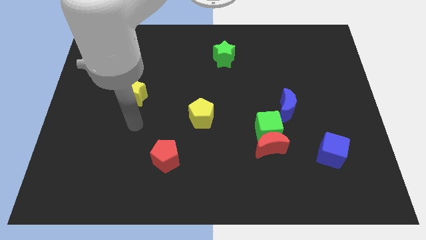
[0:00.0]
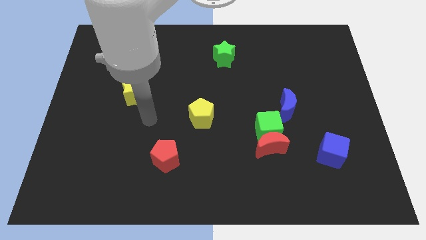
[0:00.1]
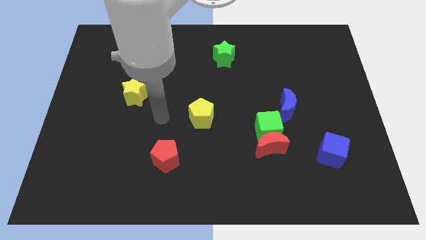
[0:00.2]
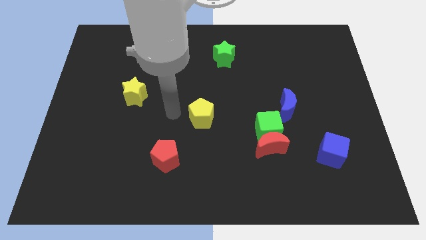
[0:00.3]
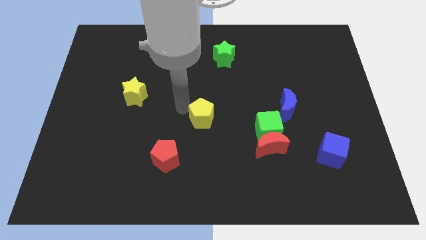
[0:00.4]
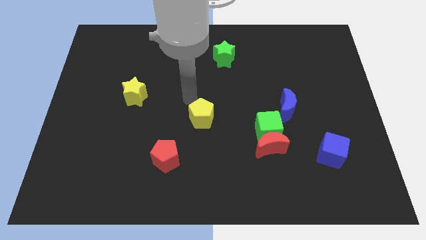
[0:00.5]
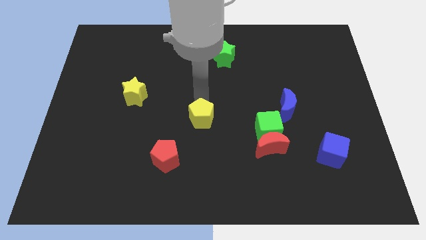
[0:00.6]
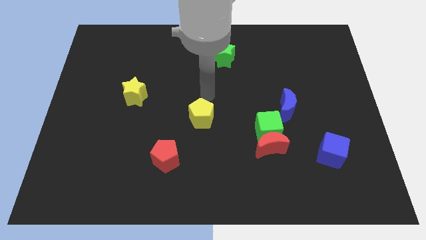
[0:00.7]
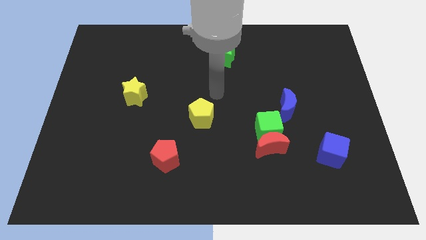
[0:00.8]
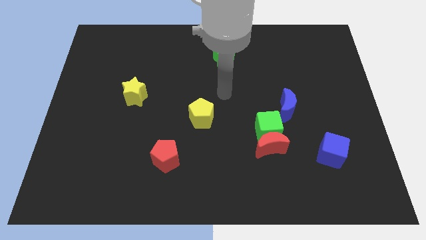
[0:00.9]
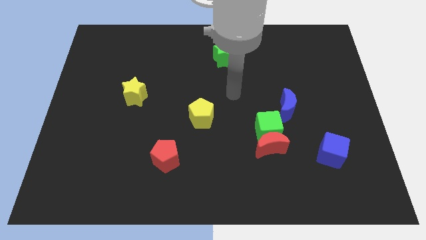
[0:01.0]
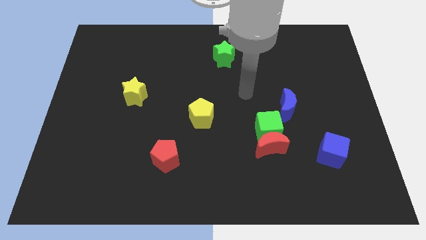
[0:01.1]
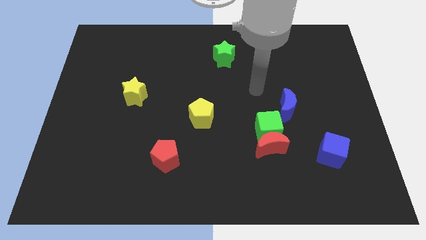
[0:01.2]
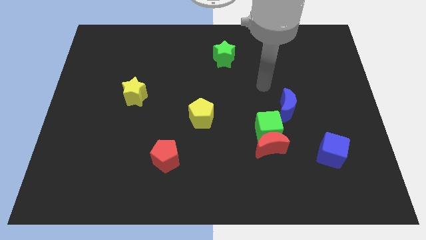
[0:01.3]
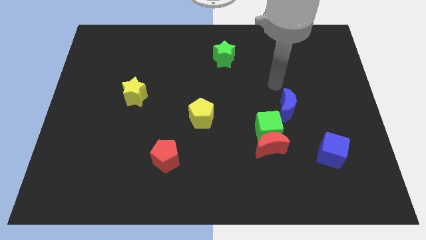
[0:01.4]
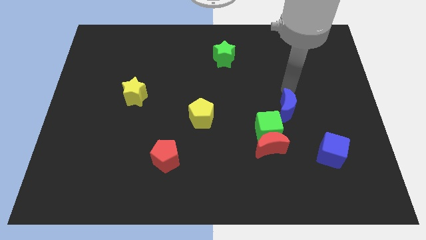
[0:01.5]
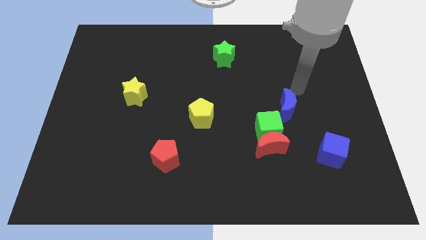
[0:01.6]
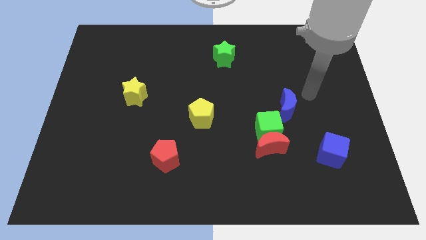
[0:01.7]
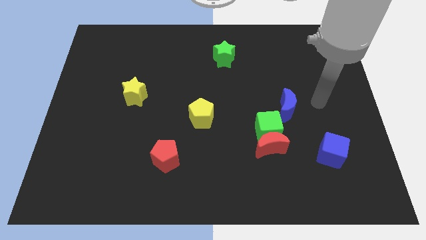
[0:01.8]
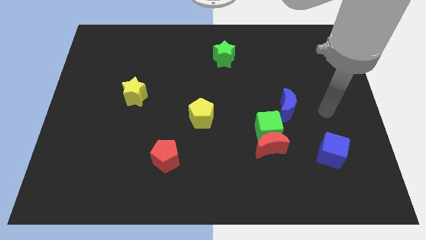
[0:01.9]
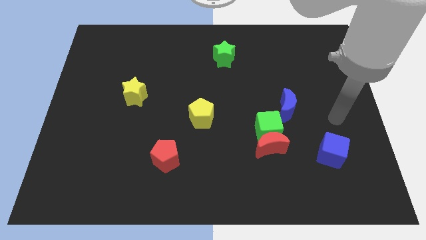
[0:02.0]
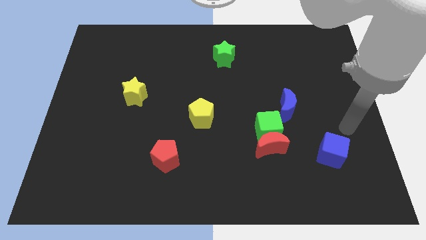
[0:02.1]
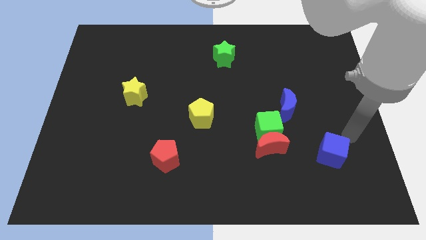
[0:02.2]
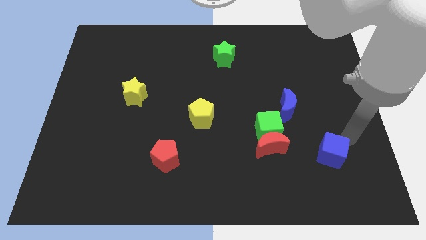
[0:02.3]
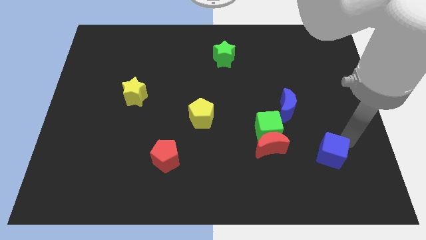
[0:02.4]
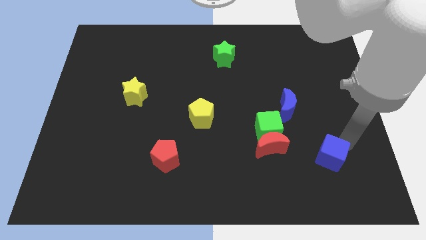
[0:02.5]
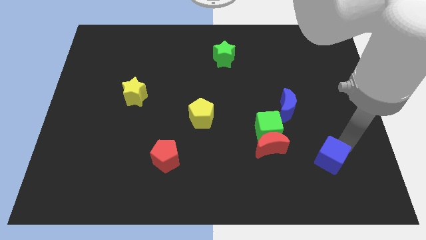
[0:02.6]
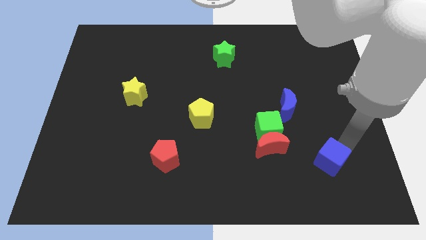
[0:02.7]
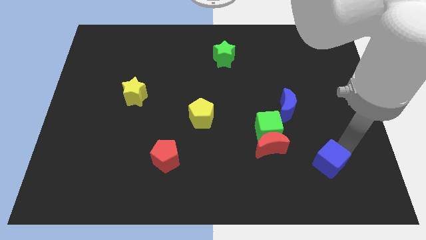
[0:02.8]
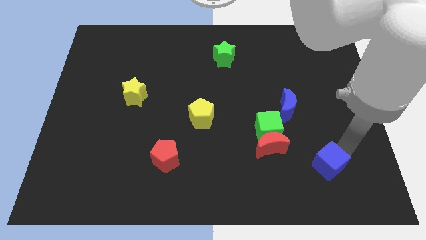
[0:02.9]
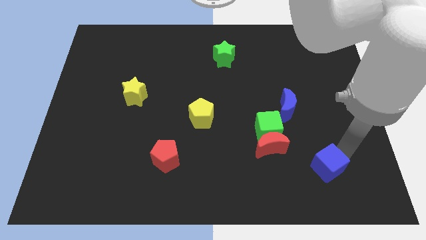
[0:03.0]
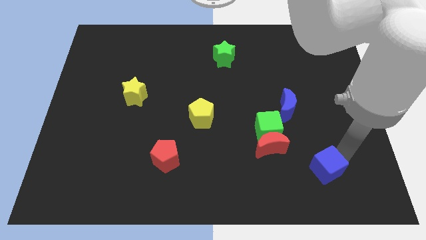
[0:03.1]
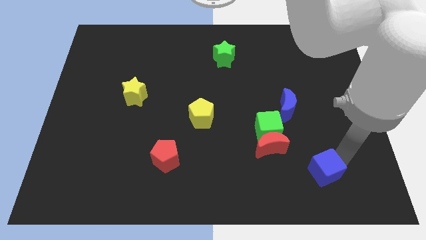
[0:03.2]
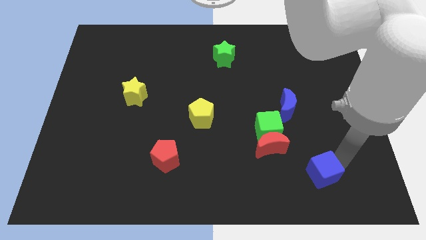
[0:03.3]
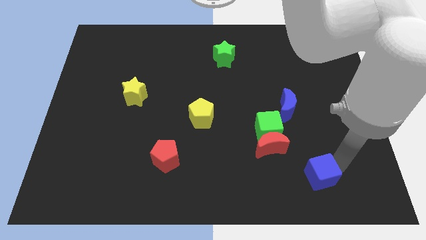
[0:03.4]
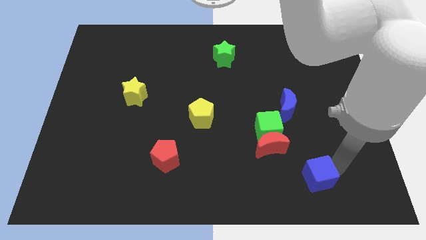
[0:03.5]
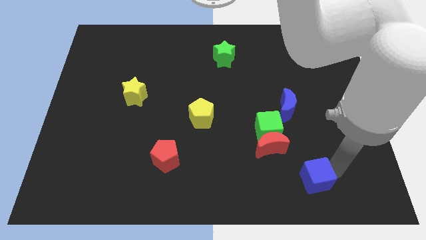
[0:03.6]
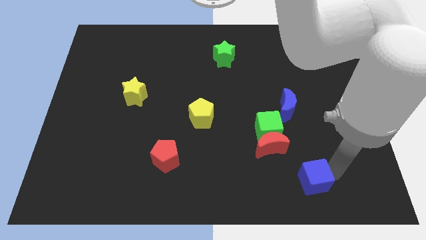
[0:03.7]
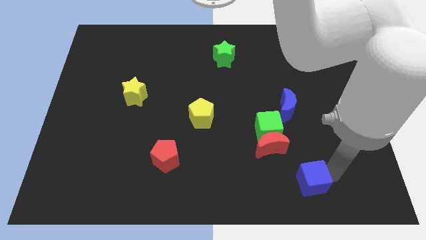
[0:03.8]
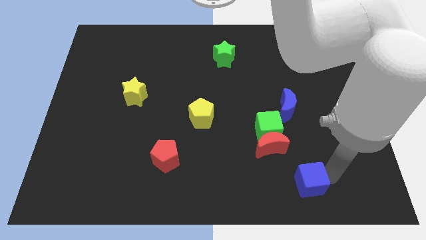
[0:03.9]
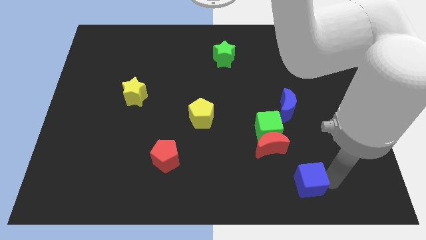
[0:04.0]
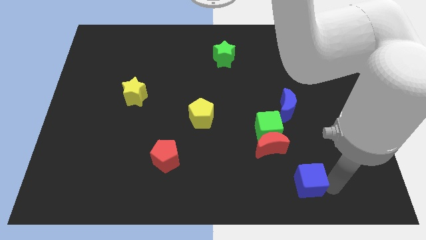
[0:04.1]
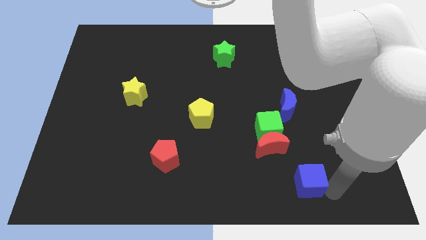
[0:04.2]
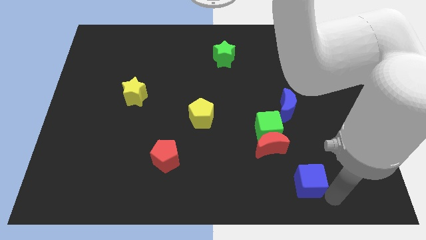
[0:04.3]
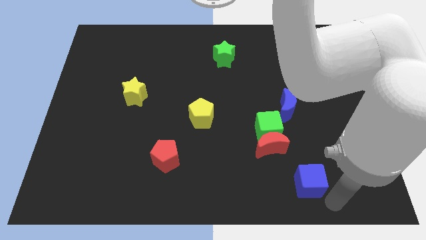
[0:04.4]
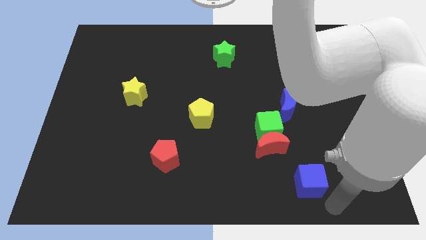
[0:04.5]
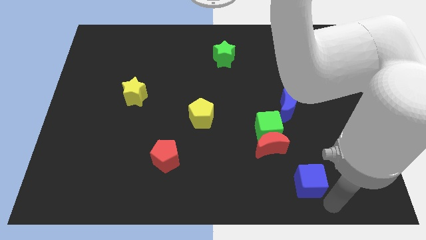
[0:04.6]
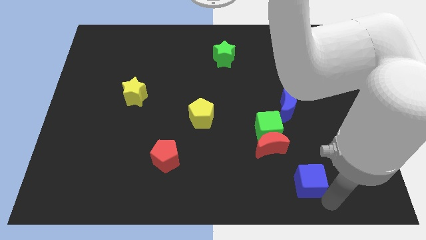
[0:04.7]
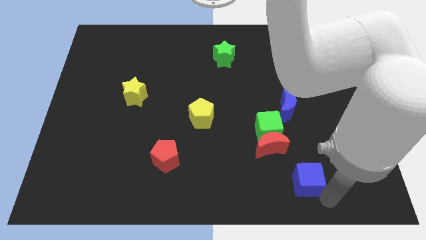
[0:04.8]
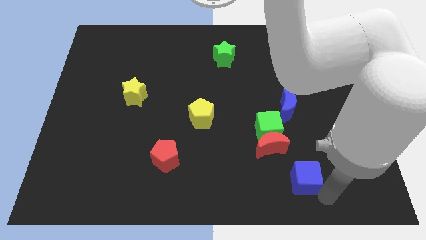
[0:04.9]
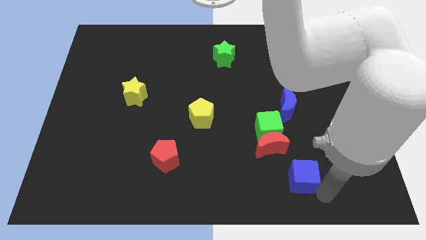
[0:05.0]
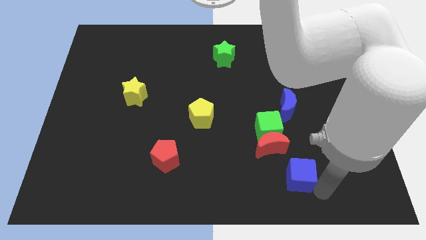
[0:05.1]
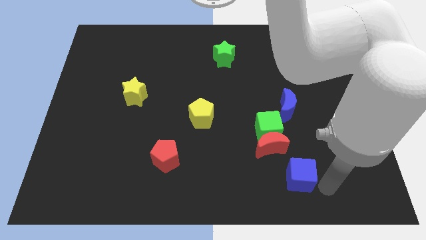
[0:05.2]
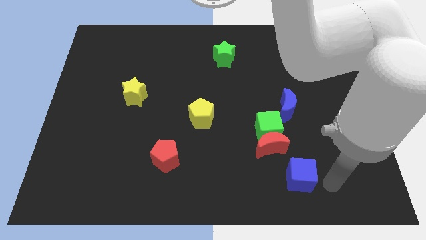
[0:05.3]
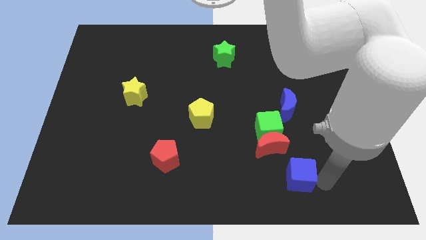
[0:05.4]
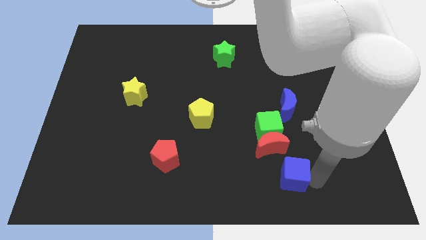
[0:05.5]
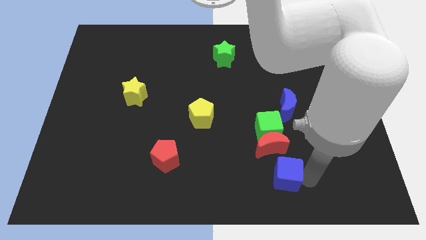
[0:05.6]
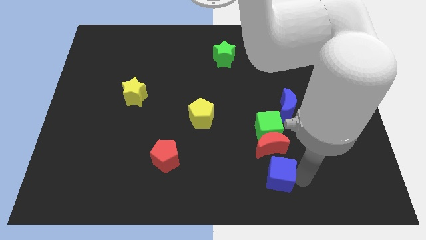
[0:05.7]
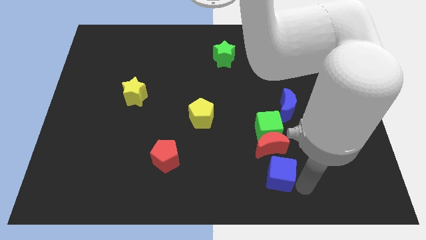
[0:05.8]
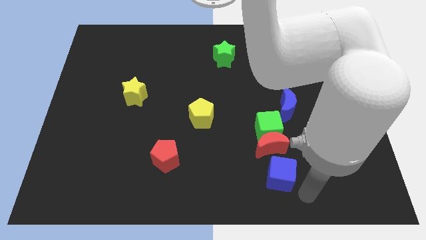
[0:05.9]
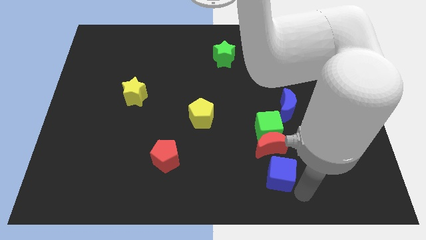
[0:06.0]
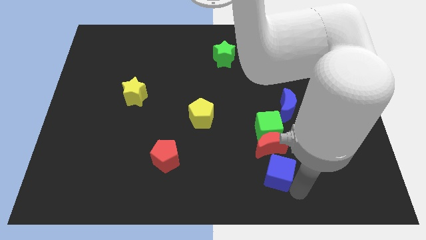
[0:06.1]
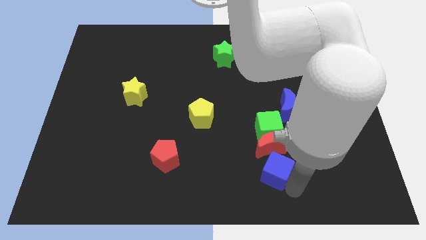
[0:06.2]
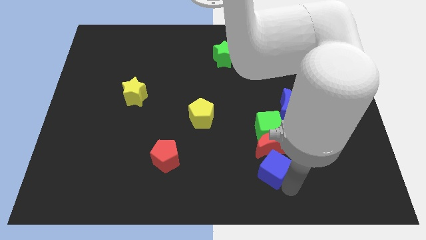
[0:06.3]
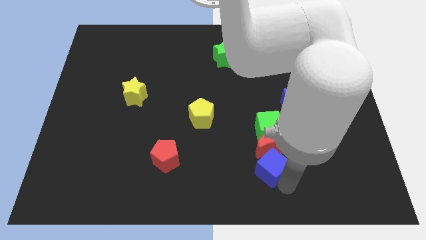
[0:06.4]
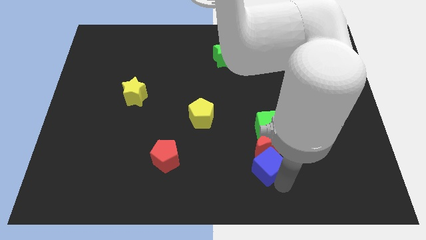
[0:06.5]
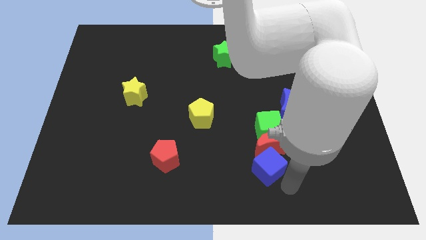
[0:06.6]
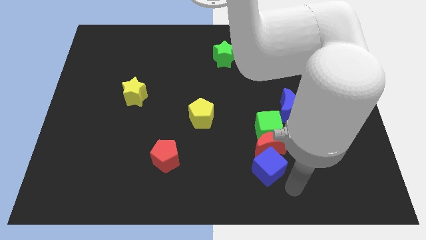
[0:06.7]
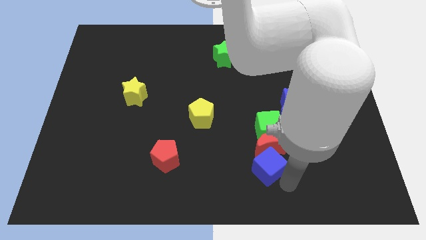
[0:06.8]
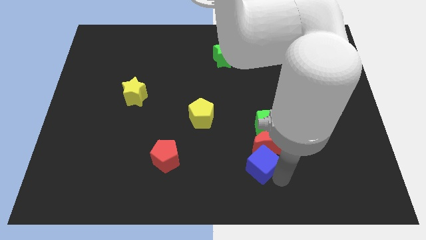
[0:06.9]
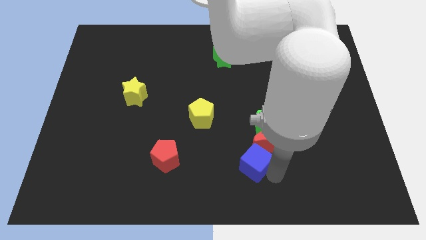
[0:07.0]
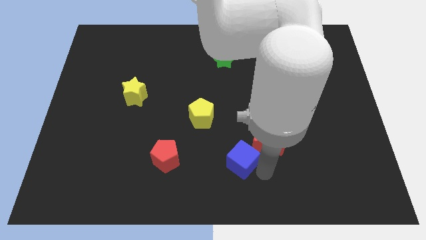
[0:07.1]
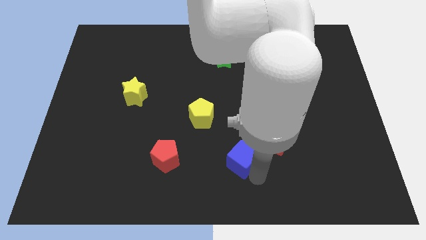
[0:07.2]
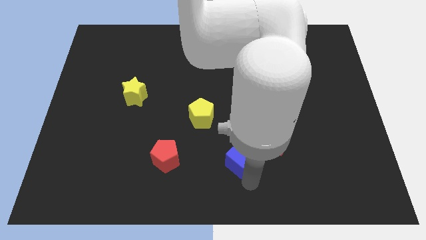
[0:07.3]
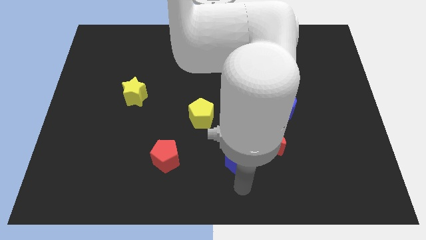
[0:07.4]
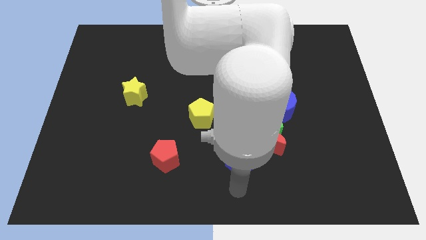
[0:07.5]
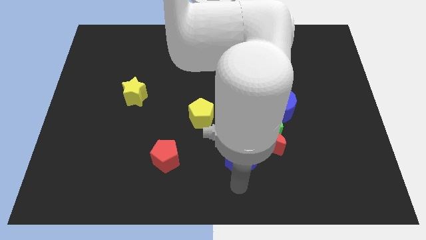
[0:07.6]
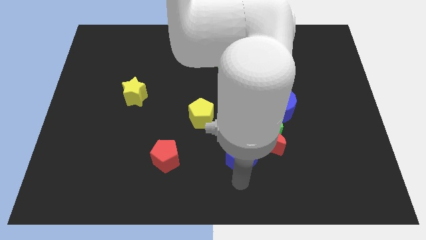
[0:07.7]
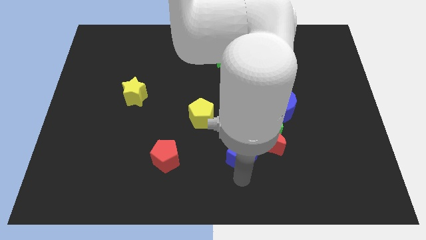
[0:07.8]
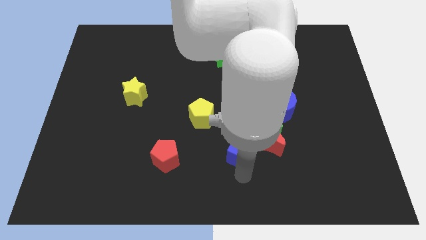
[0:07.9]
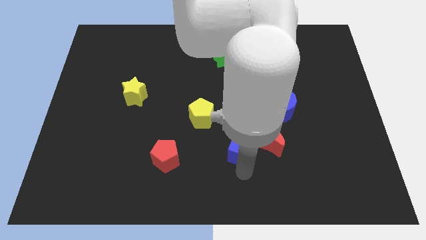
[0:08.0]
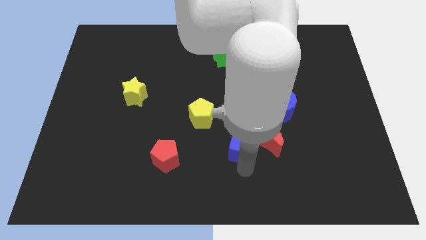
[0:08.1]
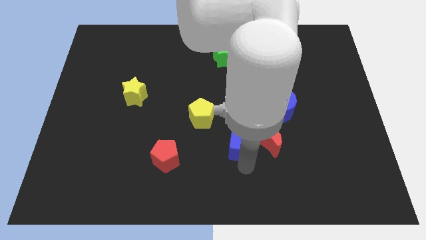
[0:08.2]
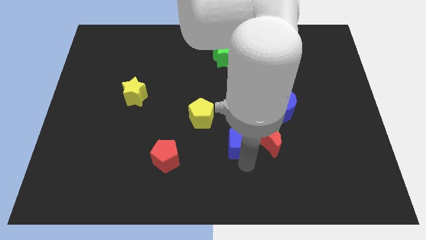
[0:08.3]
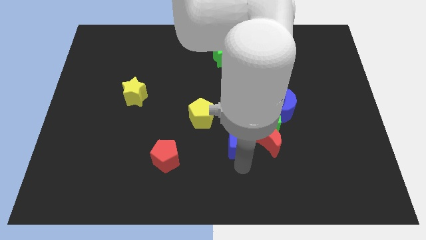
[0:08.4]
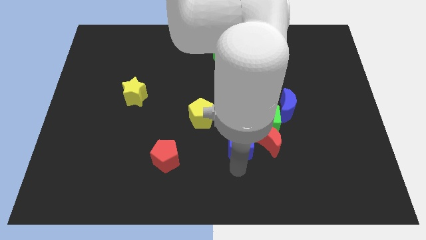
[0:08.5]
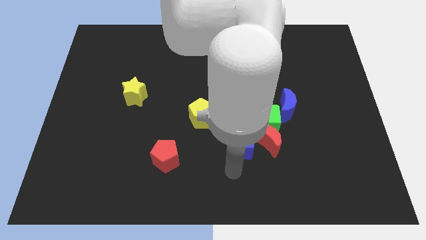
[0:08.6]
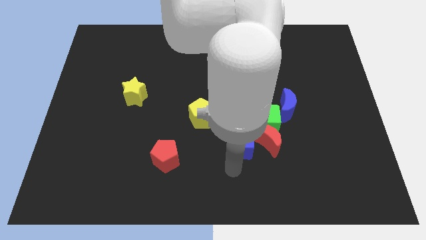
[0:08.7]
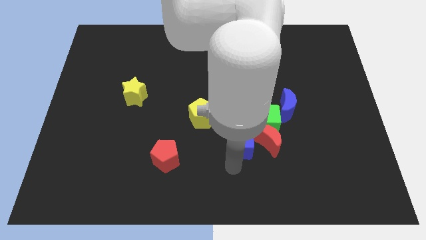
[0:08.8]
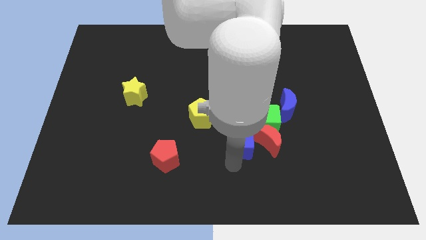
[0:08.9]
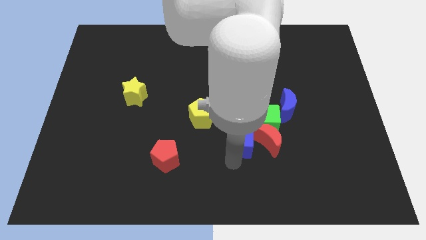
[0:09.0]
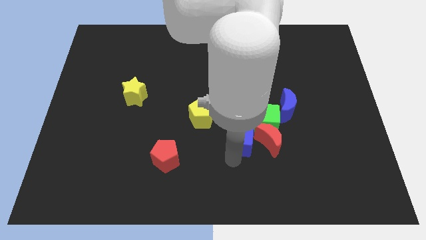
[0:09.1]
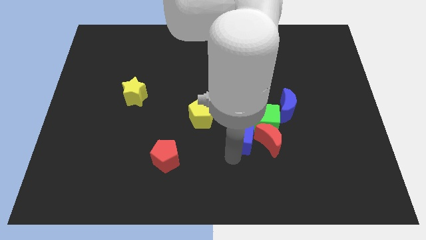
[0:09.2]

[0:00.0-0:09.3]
put the blue cube to the center
